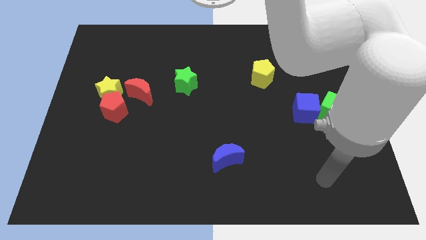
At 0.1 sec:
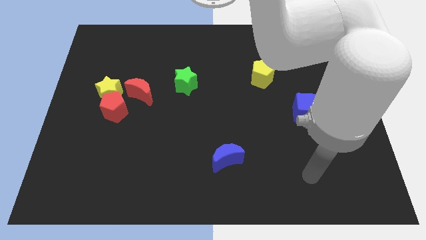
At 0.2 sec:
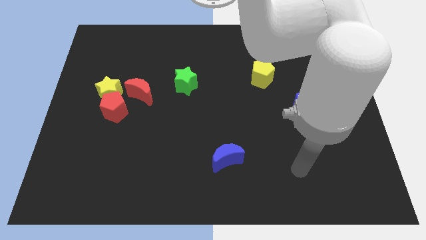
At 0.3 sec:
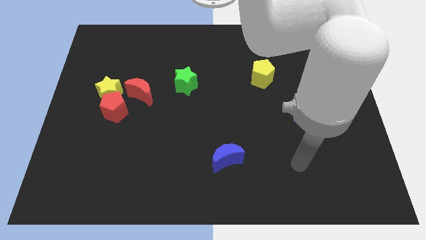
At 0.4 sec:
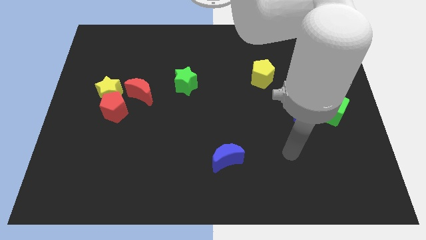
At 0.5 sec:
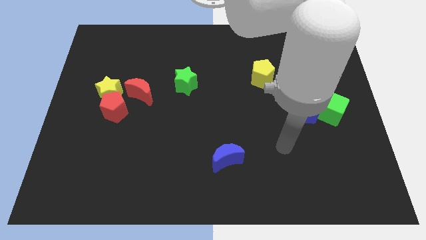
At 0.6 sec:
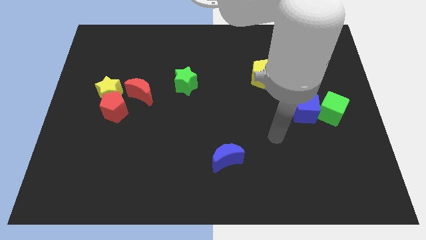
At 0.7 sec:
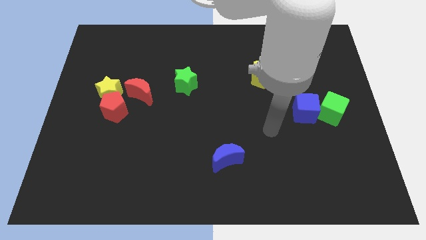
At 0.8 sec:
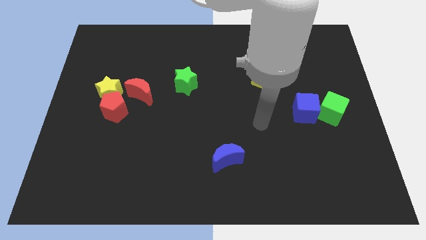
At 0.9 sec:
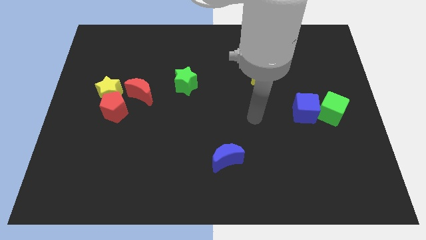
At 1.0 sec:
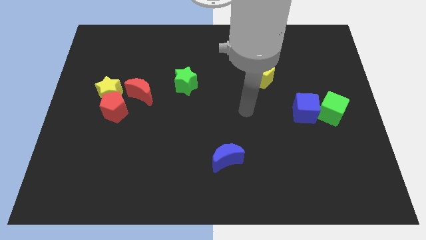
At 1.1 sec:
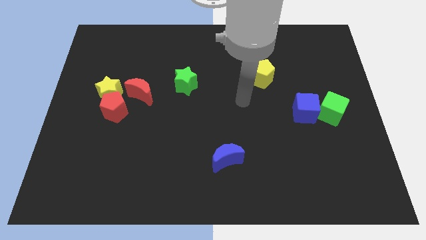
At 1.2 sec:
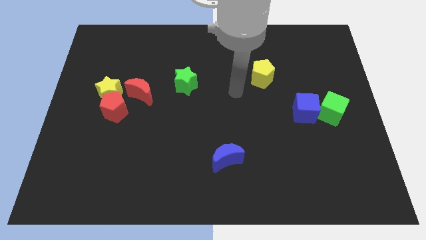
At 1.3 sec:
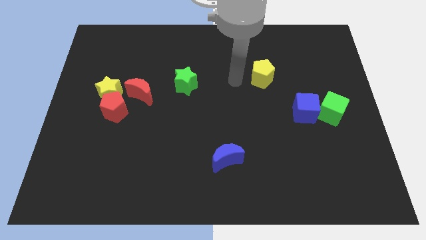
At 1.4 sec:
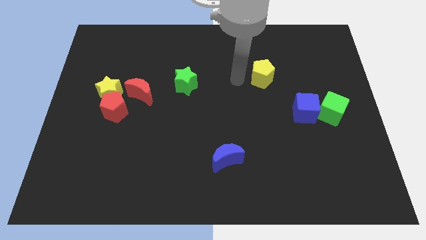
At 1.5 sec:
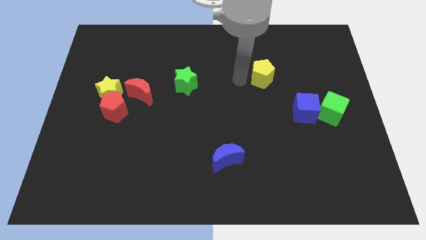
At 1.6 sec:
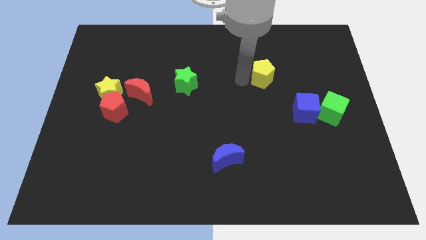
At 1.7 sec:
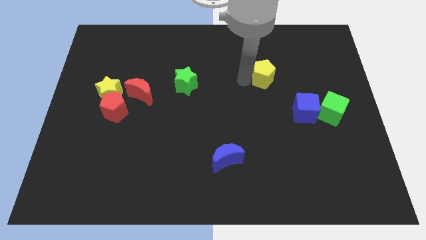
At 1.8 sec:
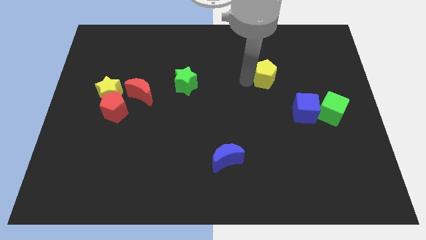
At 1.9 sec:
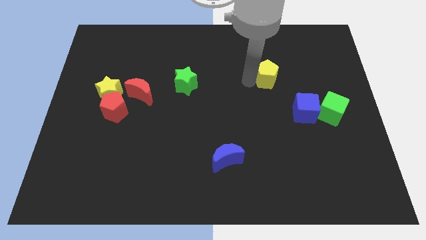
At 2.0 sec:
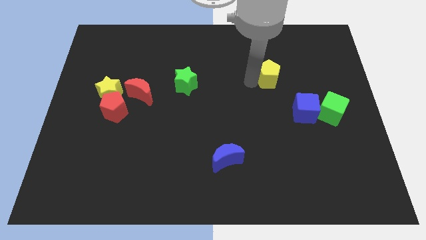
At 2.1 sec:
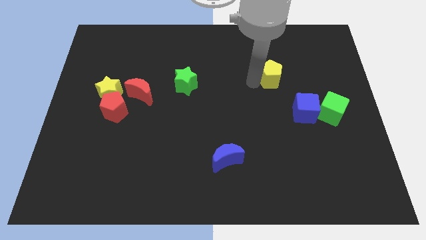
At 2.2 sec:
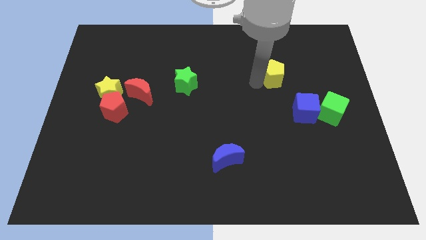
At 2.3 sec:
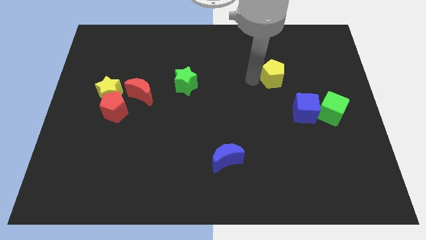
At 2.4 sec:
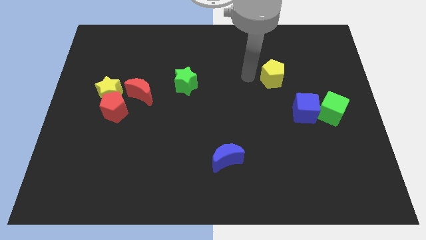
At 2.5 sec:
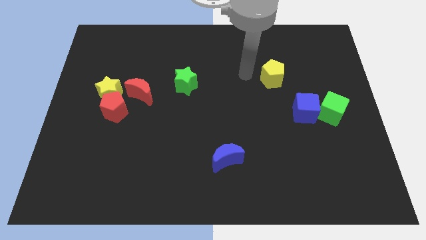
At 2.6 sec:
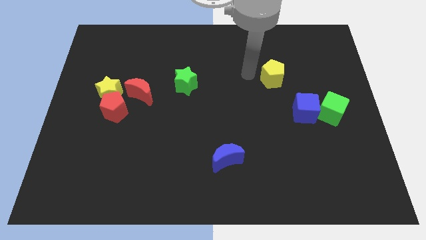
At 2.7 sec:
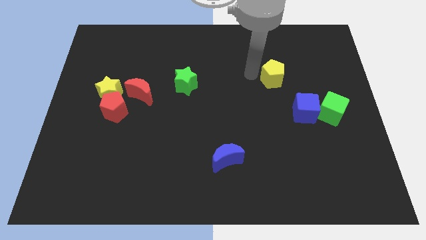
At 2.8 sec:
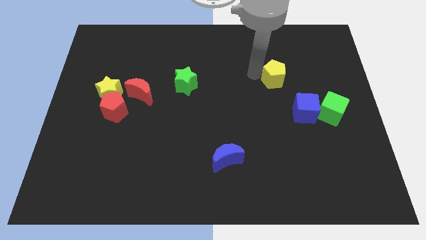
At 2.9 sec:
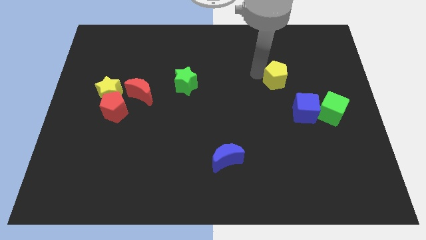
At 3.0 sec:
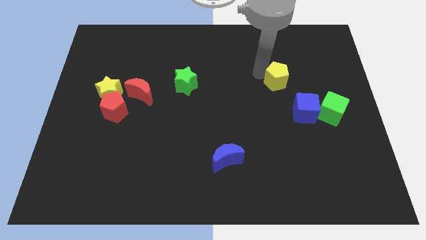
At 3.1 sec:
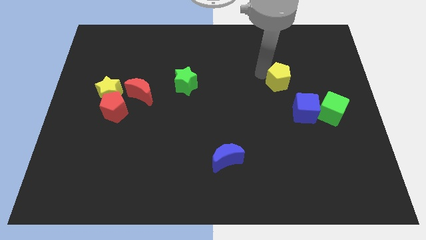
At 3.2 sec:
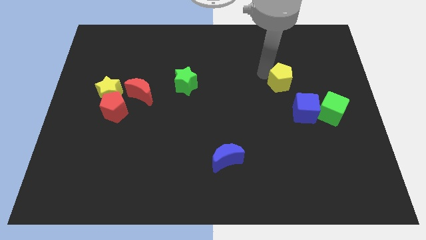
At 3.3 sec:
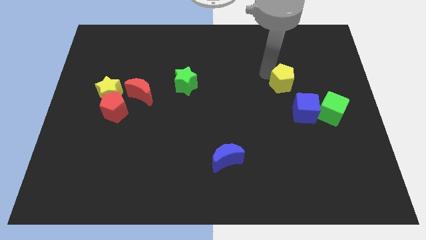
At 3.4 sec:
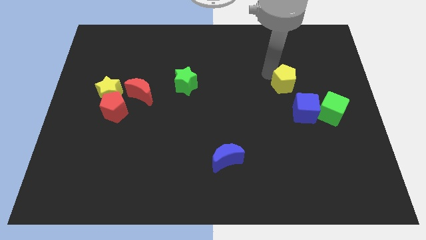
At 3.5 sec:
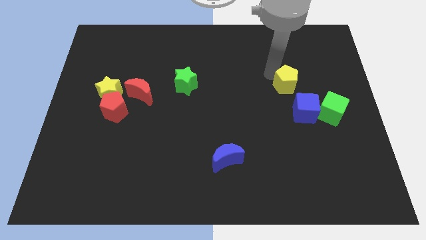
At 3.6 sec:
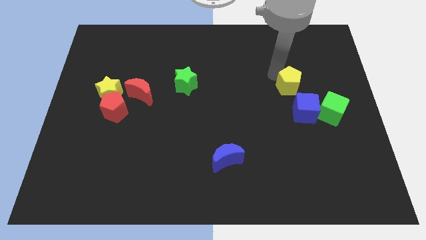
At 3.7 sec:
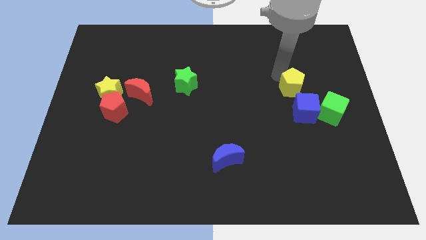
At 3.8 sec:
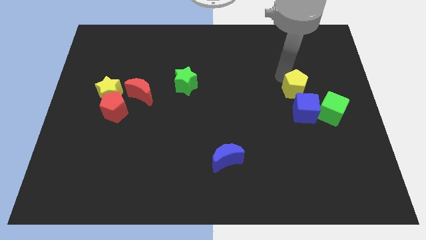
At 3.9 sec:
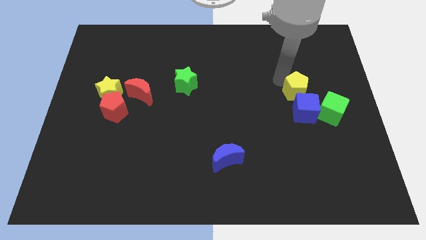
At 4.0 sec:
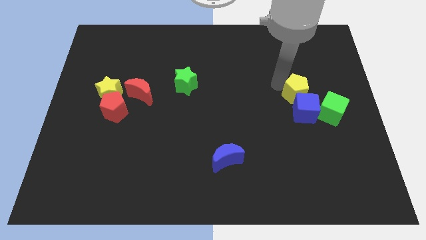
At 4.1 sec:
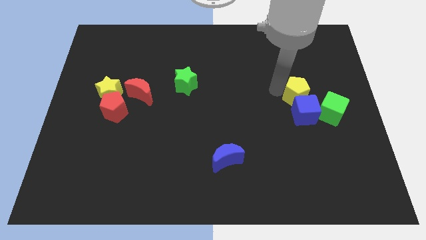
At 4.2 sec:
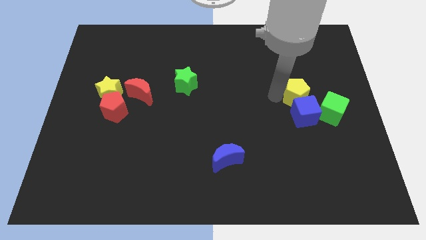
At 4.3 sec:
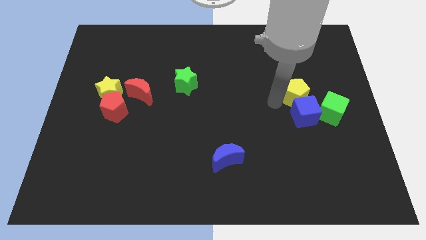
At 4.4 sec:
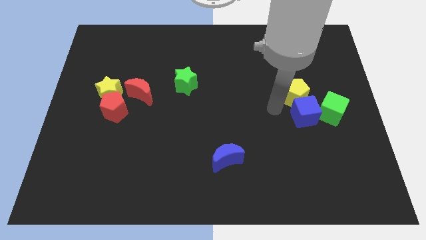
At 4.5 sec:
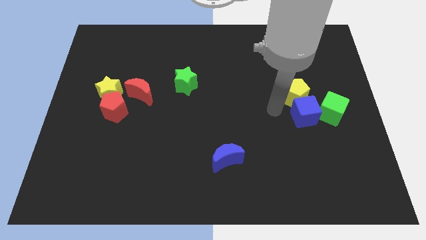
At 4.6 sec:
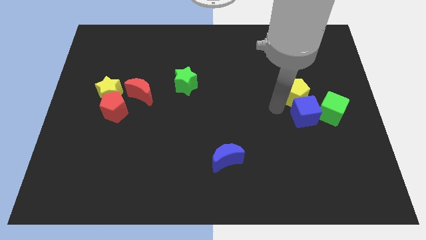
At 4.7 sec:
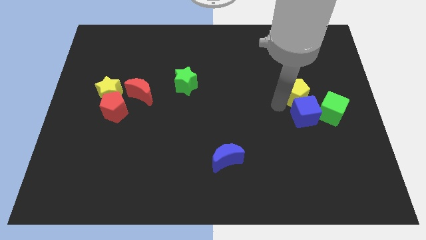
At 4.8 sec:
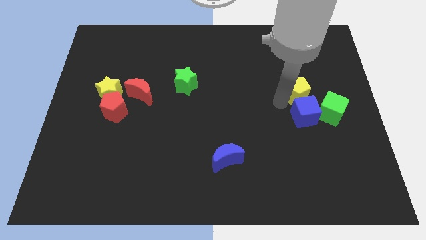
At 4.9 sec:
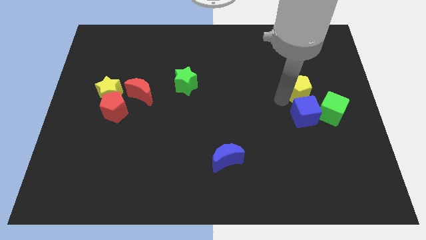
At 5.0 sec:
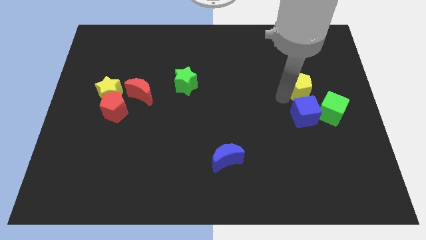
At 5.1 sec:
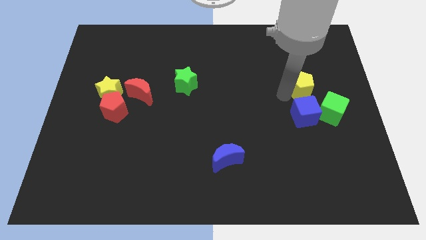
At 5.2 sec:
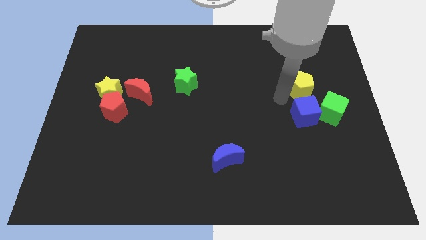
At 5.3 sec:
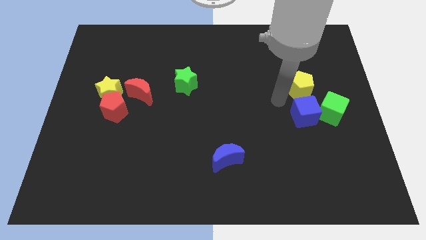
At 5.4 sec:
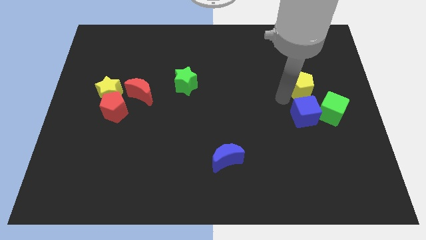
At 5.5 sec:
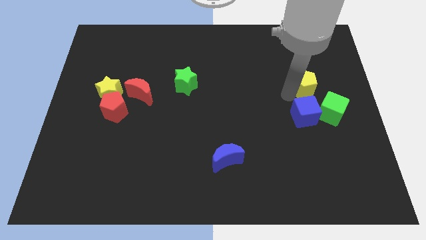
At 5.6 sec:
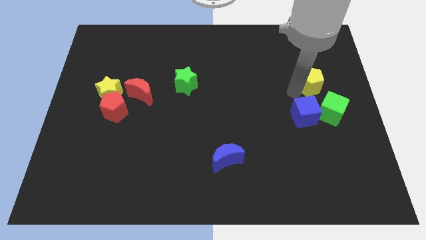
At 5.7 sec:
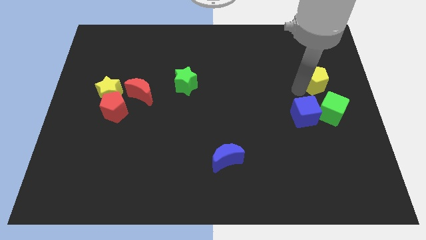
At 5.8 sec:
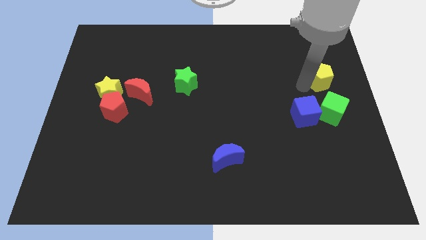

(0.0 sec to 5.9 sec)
move the yellow pentagon to the right side of the board
